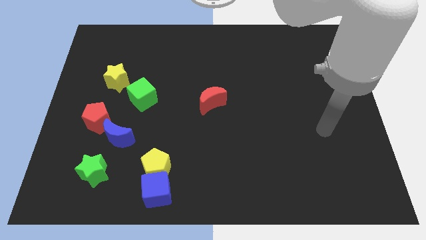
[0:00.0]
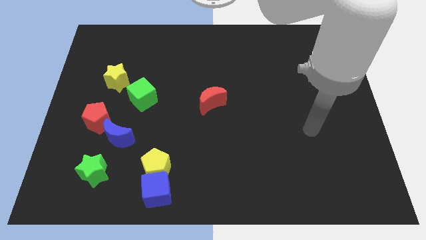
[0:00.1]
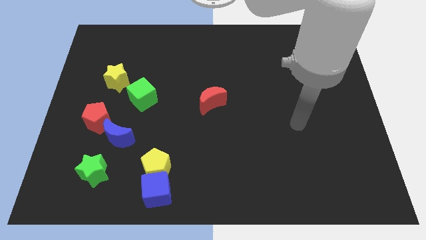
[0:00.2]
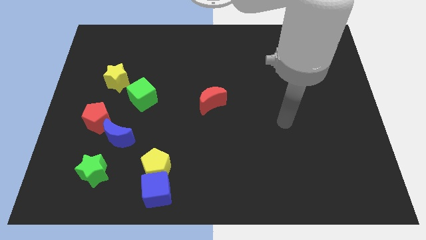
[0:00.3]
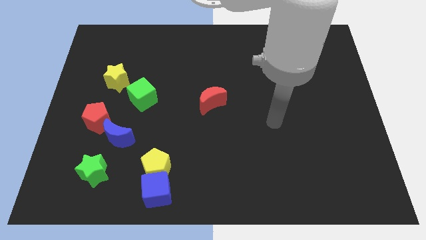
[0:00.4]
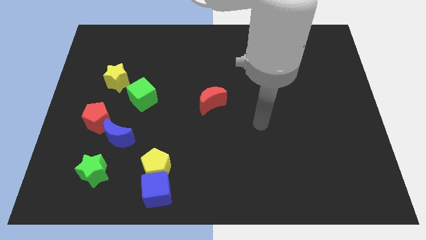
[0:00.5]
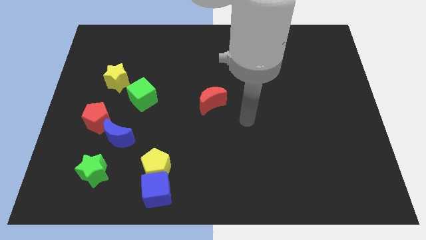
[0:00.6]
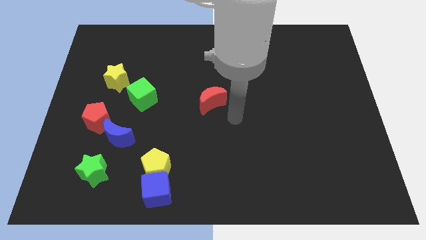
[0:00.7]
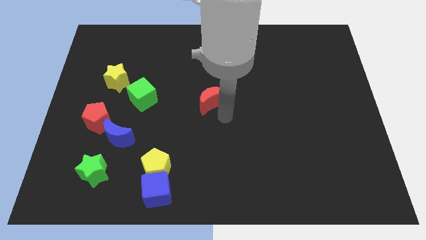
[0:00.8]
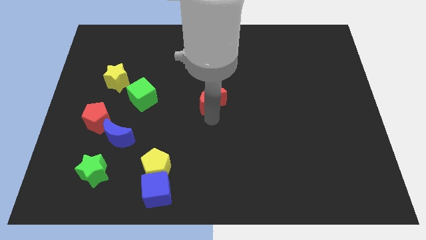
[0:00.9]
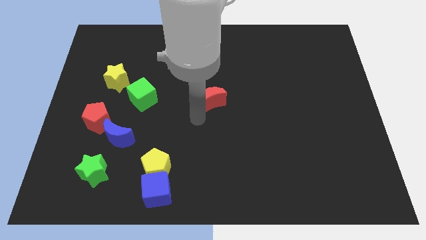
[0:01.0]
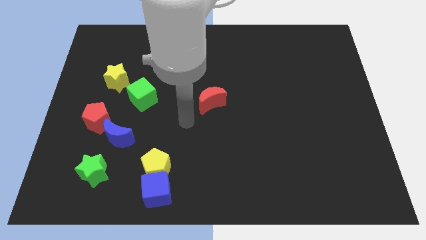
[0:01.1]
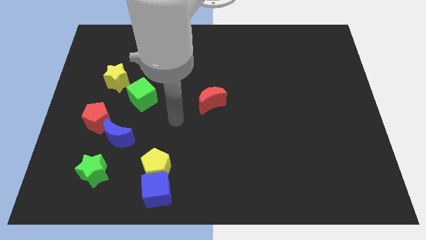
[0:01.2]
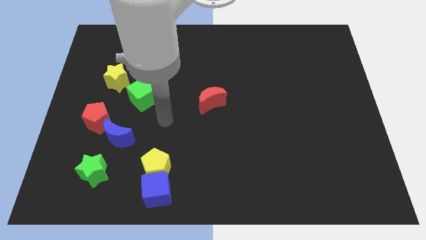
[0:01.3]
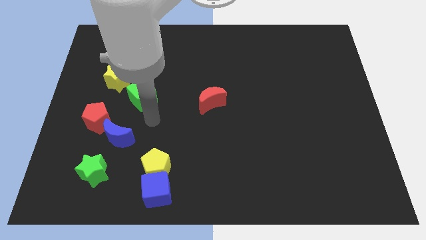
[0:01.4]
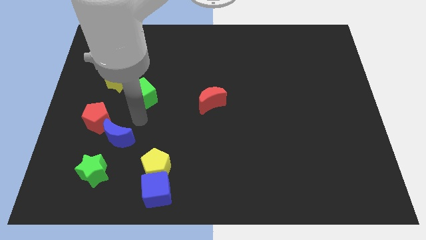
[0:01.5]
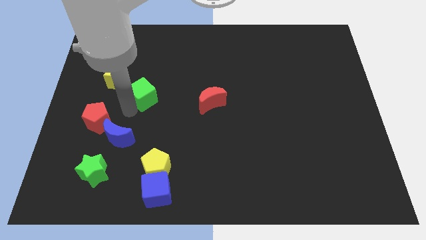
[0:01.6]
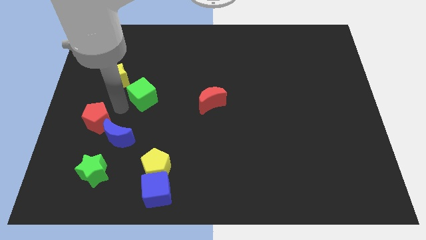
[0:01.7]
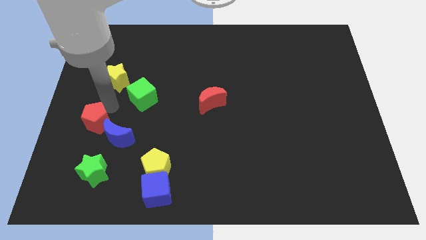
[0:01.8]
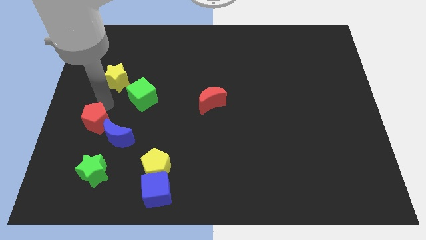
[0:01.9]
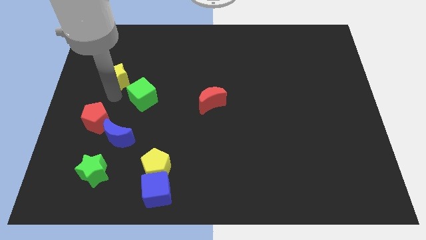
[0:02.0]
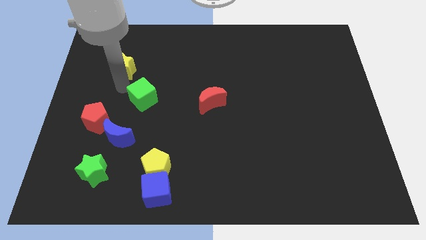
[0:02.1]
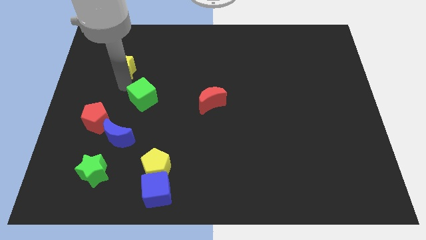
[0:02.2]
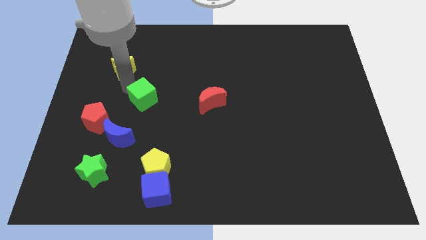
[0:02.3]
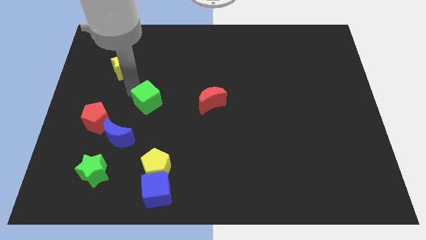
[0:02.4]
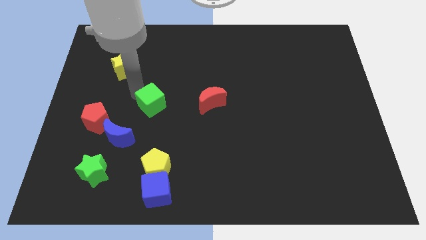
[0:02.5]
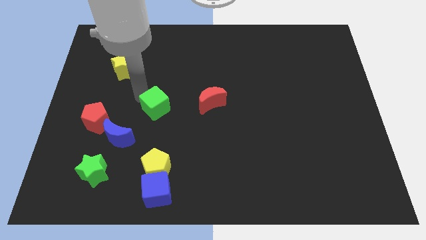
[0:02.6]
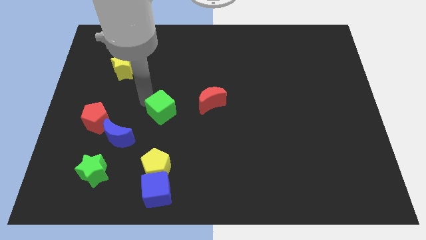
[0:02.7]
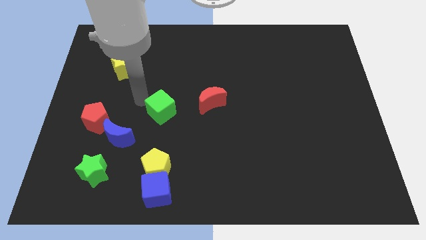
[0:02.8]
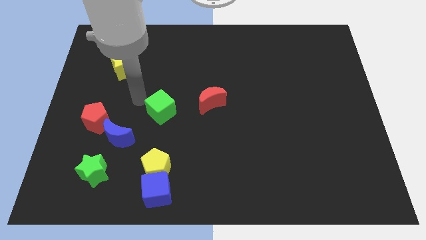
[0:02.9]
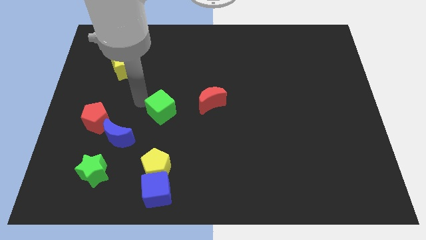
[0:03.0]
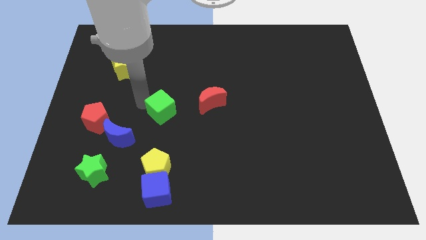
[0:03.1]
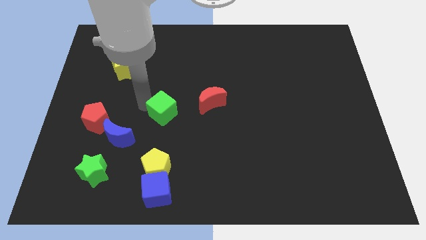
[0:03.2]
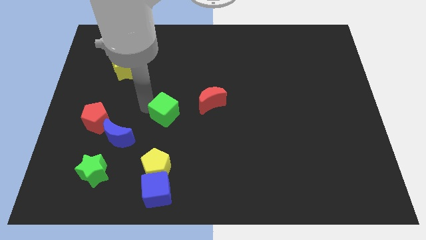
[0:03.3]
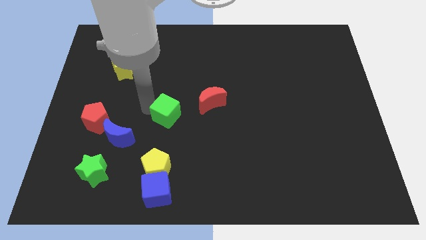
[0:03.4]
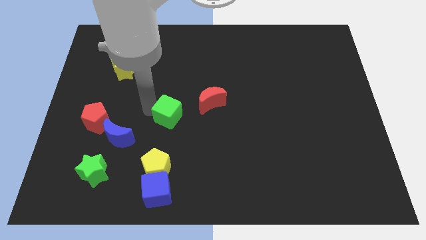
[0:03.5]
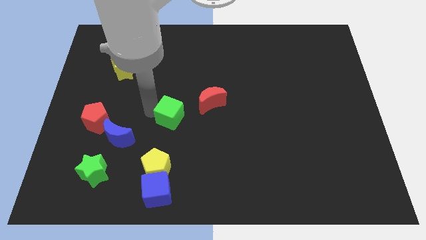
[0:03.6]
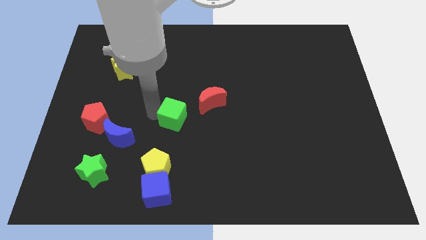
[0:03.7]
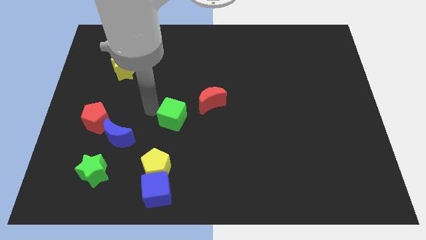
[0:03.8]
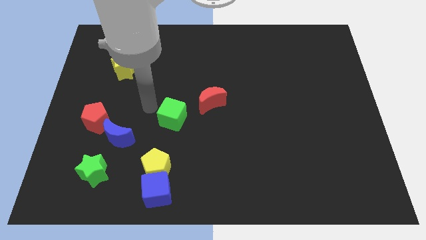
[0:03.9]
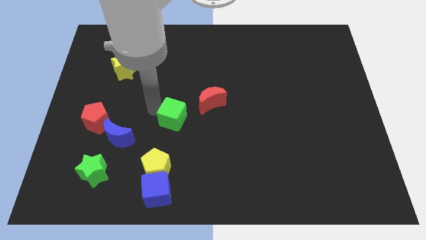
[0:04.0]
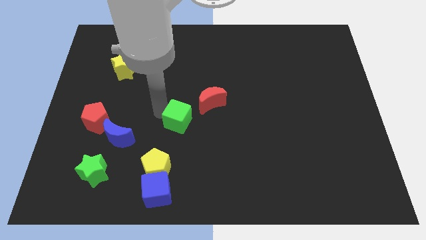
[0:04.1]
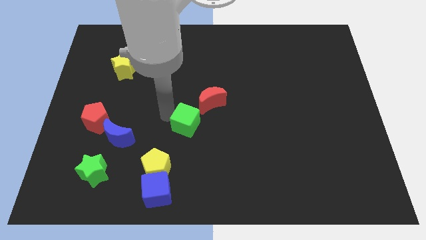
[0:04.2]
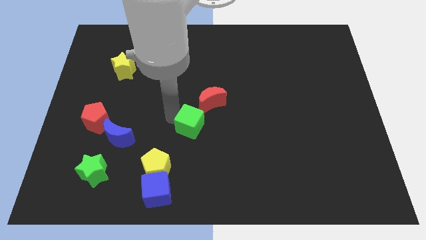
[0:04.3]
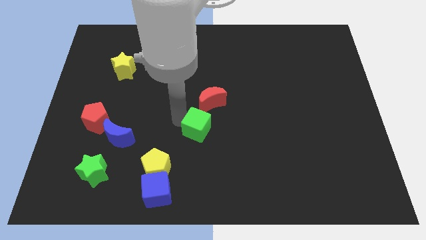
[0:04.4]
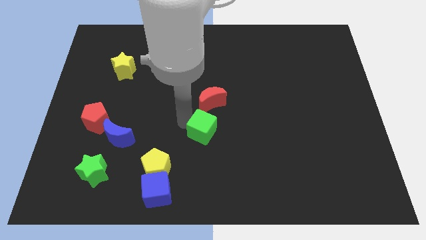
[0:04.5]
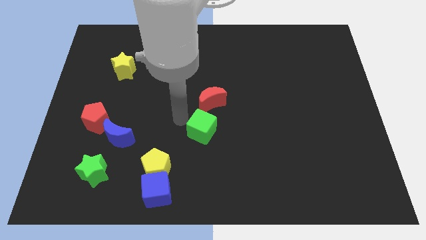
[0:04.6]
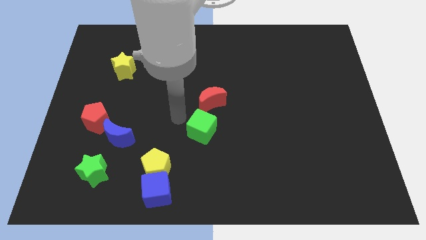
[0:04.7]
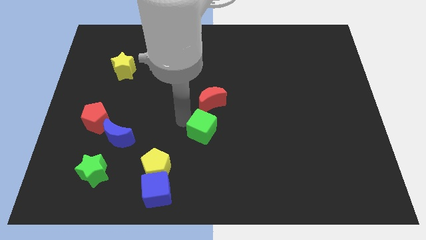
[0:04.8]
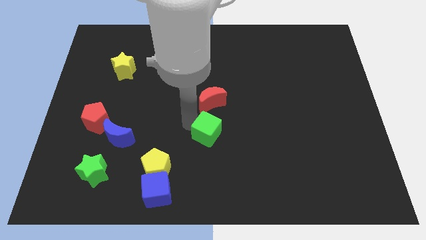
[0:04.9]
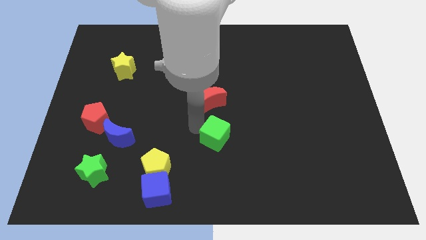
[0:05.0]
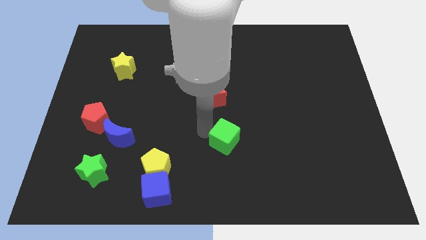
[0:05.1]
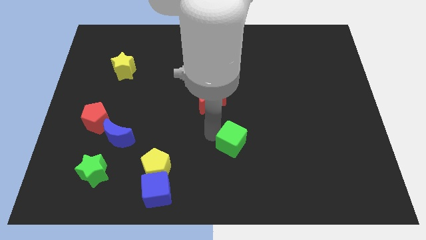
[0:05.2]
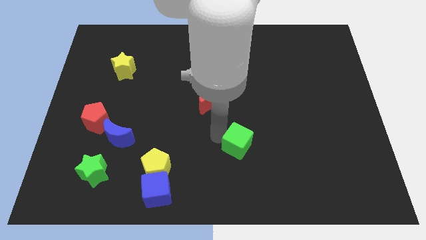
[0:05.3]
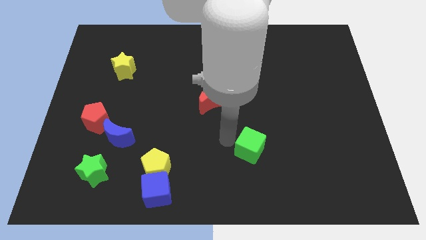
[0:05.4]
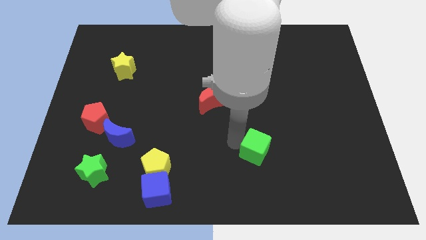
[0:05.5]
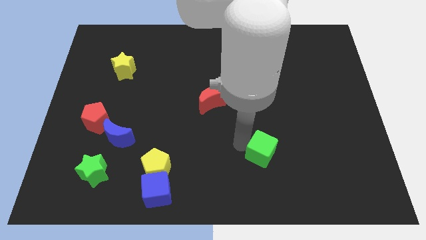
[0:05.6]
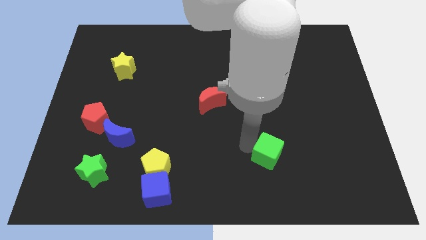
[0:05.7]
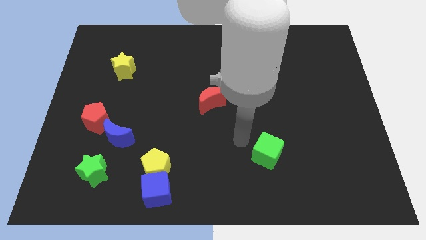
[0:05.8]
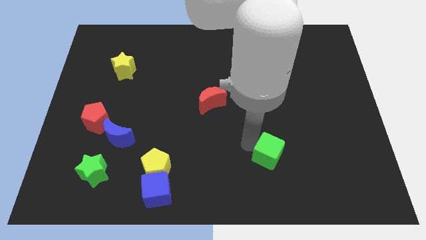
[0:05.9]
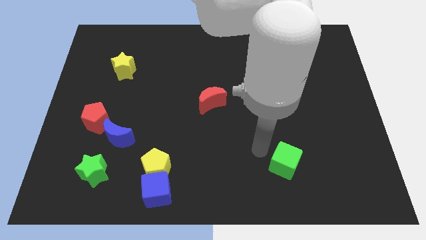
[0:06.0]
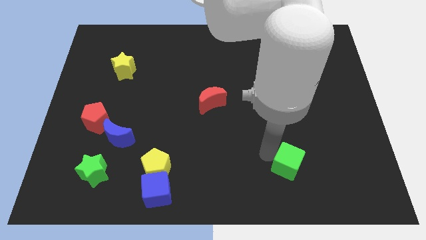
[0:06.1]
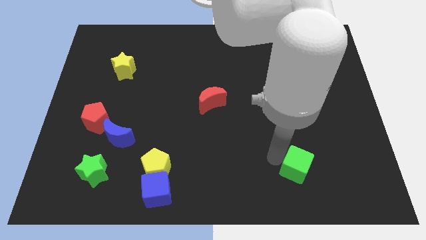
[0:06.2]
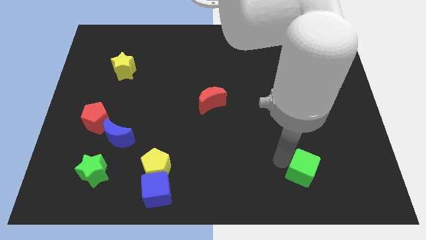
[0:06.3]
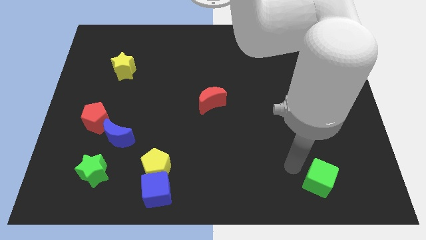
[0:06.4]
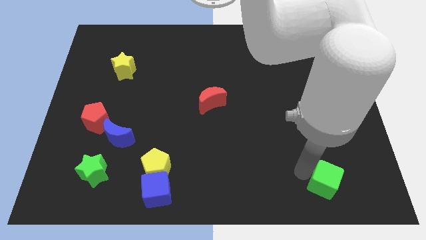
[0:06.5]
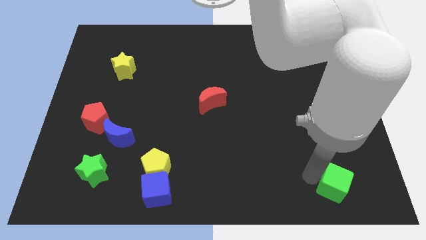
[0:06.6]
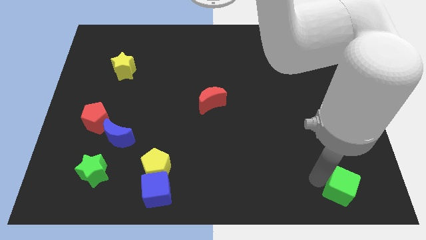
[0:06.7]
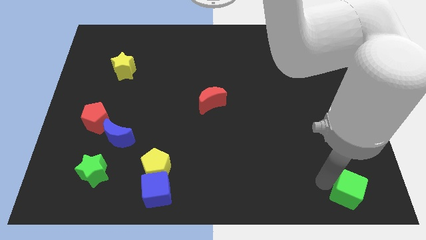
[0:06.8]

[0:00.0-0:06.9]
put the green cube to the lower right corner

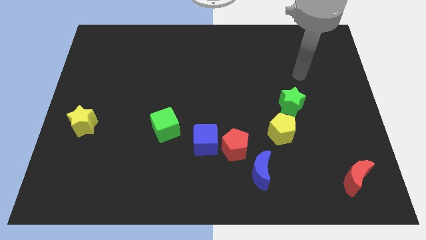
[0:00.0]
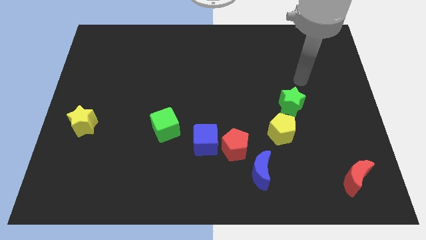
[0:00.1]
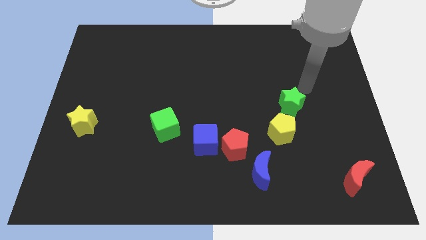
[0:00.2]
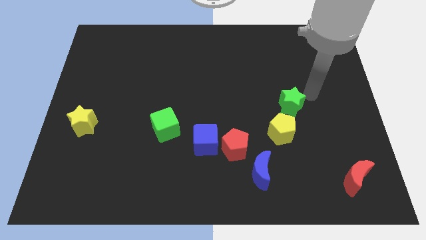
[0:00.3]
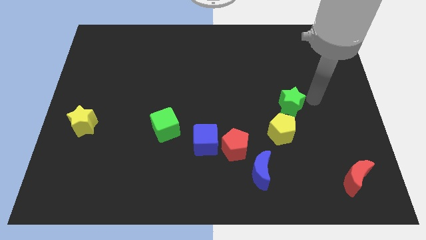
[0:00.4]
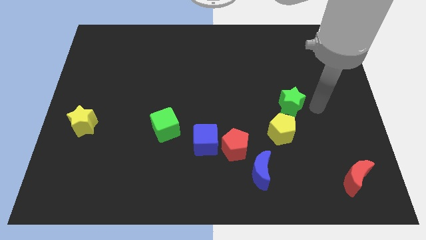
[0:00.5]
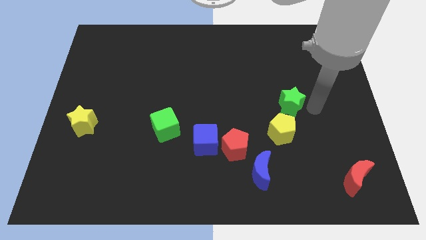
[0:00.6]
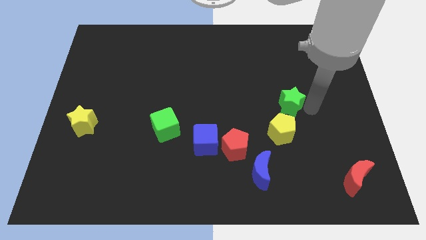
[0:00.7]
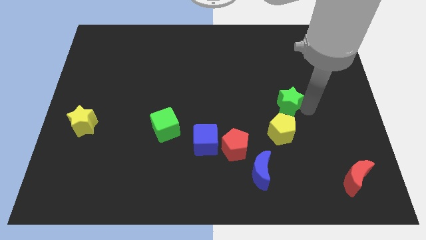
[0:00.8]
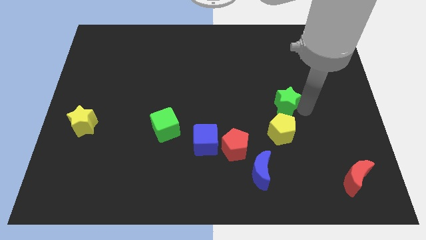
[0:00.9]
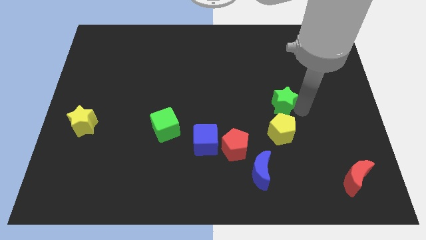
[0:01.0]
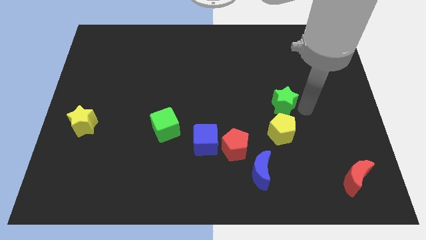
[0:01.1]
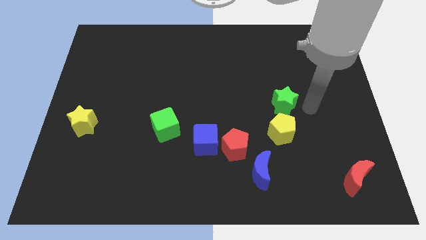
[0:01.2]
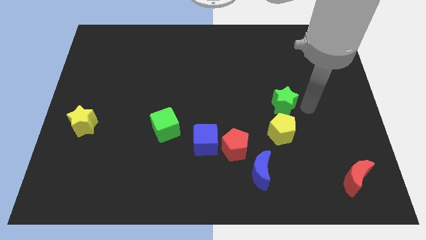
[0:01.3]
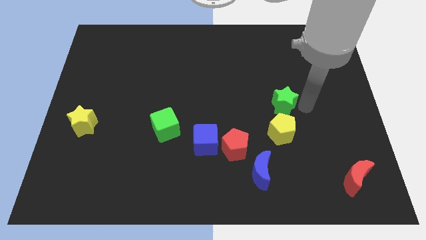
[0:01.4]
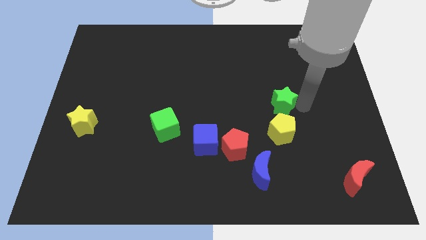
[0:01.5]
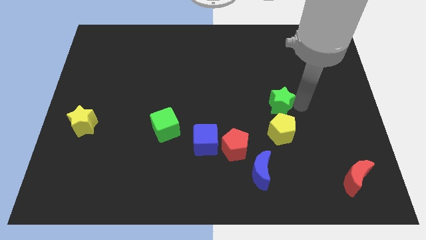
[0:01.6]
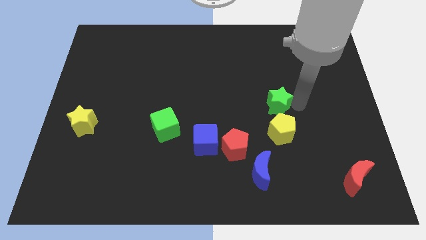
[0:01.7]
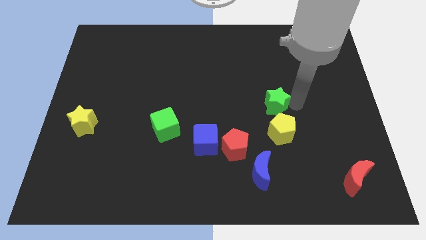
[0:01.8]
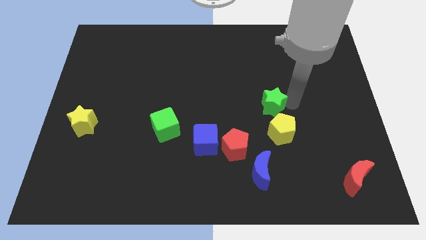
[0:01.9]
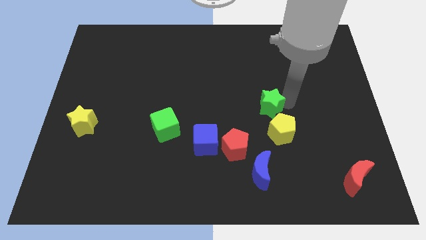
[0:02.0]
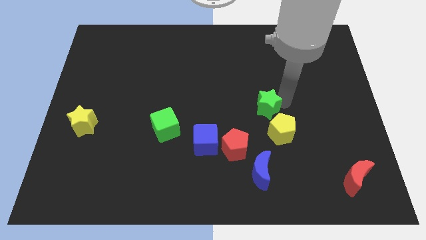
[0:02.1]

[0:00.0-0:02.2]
slide the green star to the middle of the board
